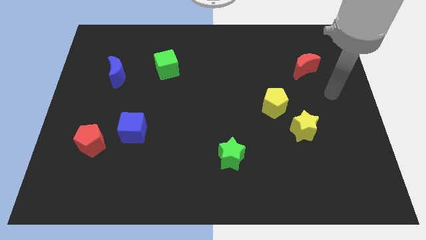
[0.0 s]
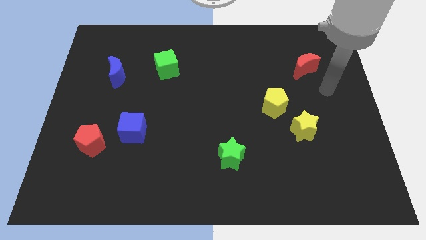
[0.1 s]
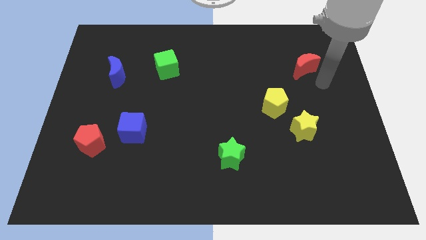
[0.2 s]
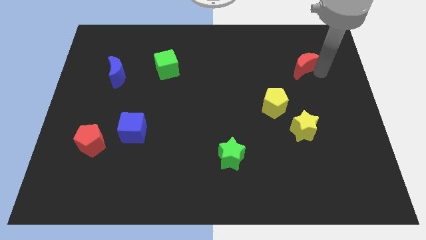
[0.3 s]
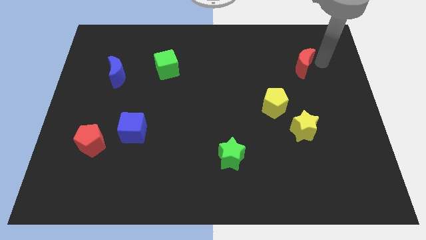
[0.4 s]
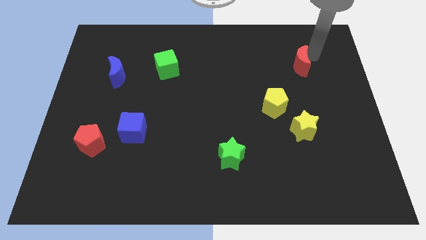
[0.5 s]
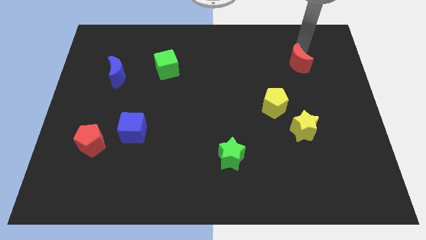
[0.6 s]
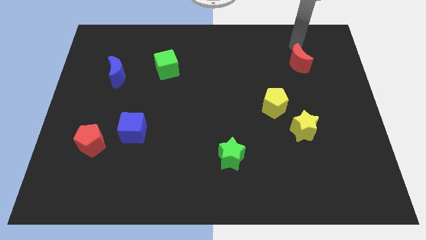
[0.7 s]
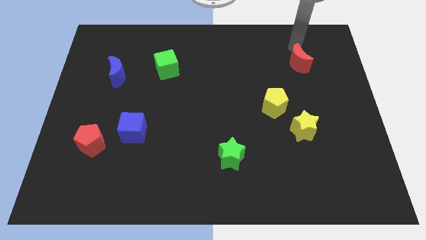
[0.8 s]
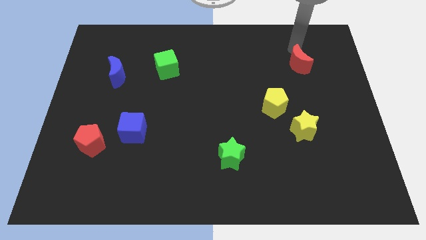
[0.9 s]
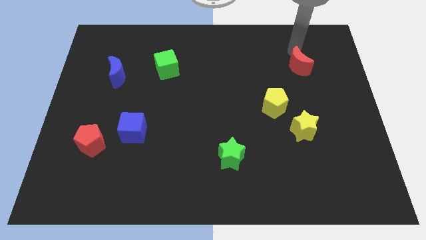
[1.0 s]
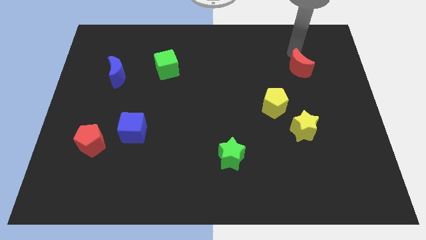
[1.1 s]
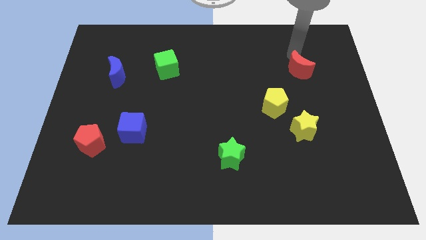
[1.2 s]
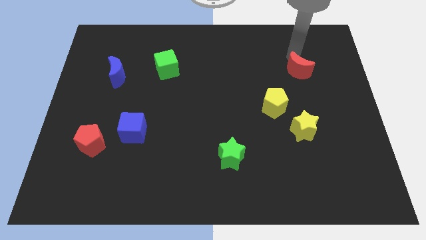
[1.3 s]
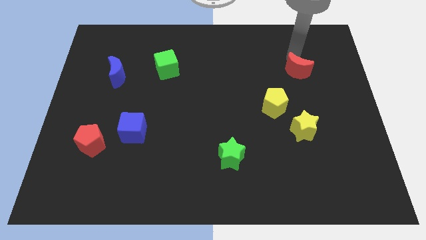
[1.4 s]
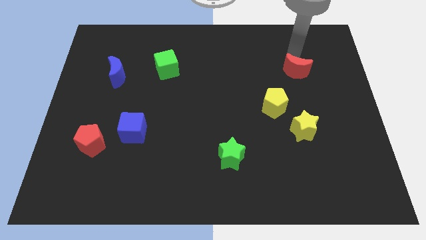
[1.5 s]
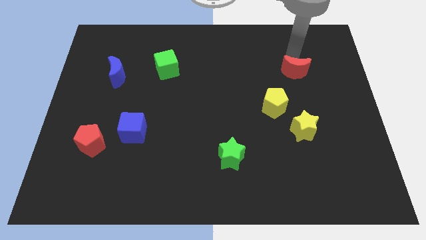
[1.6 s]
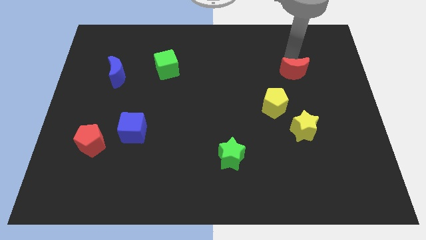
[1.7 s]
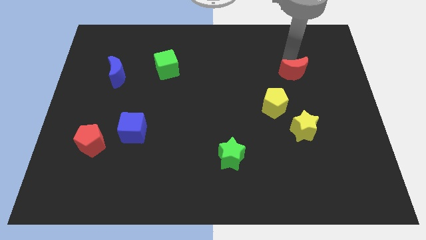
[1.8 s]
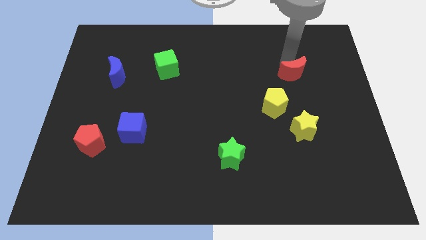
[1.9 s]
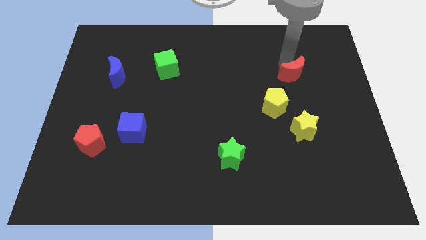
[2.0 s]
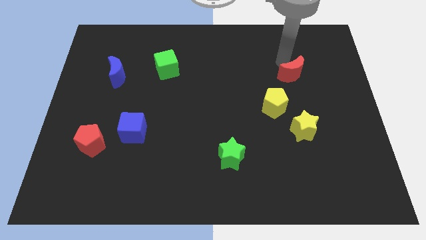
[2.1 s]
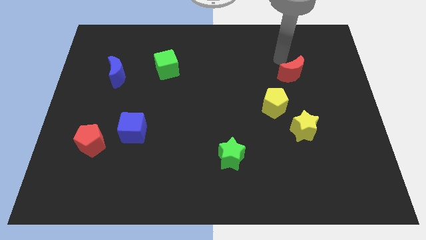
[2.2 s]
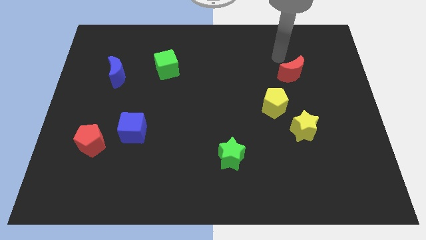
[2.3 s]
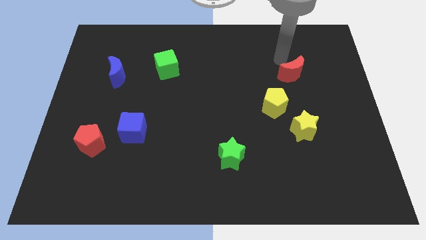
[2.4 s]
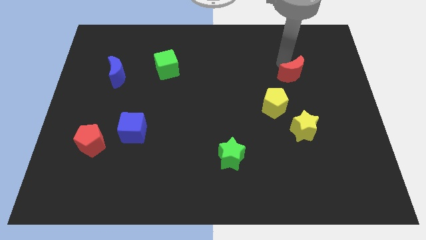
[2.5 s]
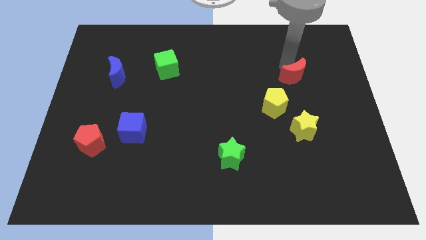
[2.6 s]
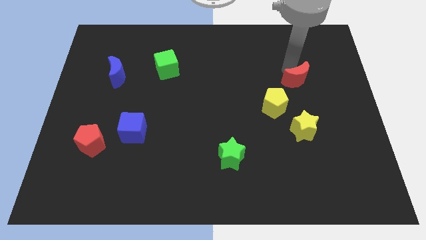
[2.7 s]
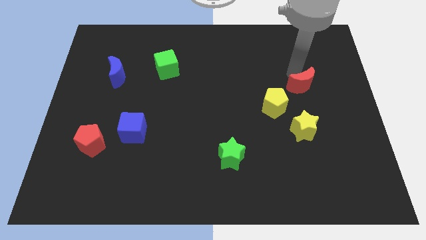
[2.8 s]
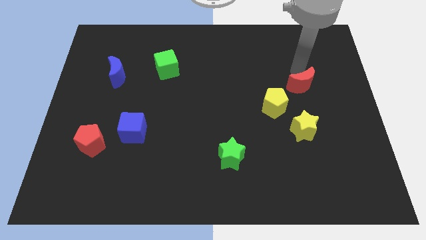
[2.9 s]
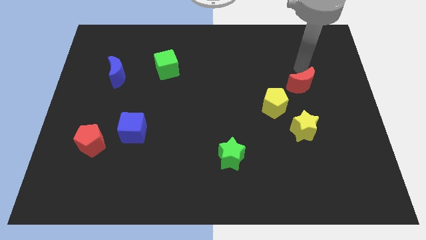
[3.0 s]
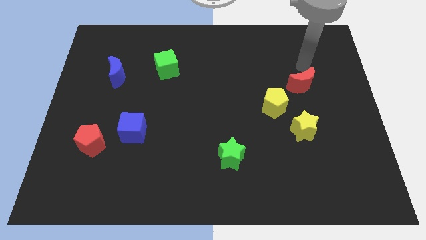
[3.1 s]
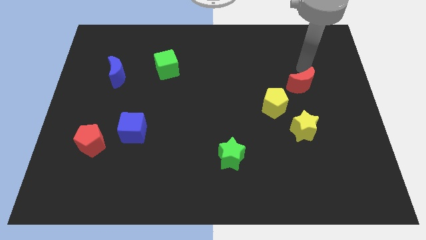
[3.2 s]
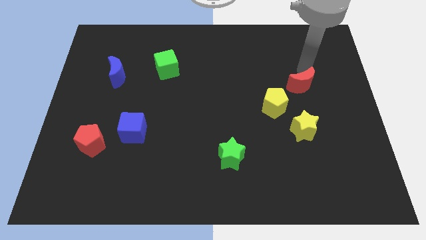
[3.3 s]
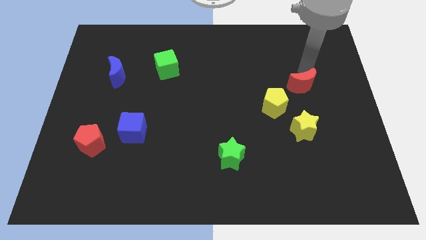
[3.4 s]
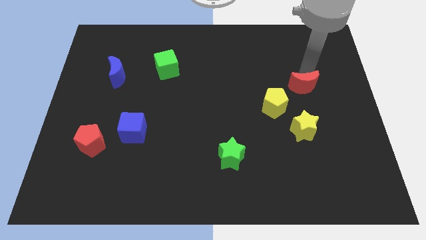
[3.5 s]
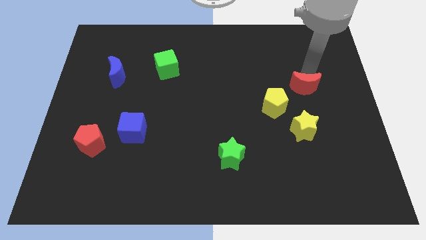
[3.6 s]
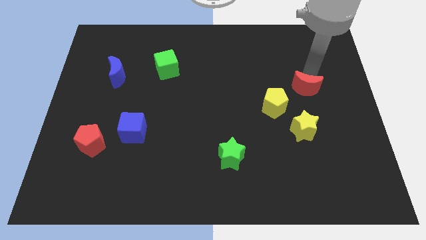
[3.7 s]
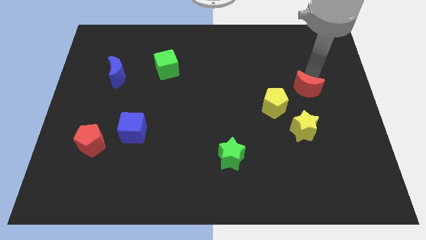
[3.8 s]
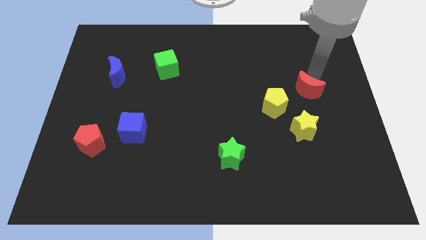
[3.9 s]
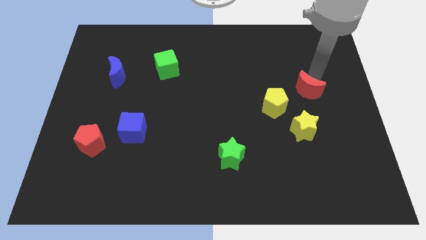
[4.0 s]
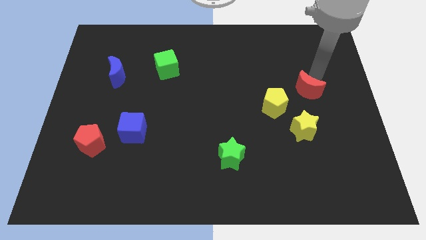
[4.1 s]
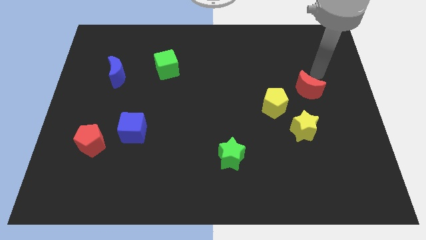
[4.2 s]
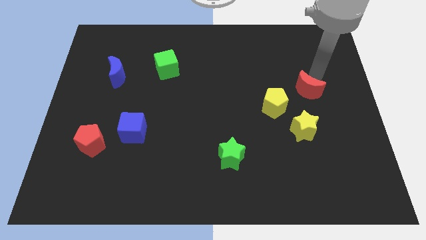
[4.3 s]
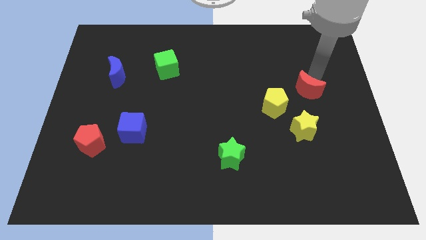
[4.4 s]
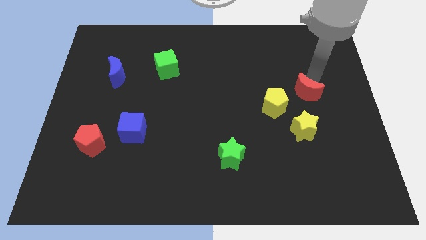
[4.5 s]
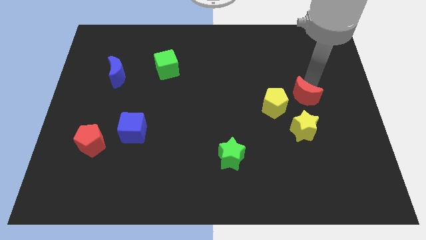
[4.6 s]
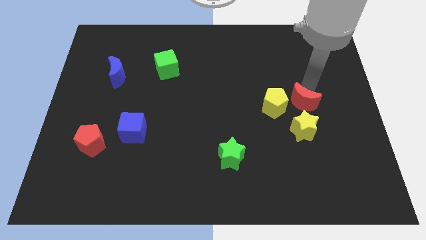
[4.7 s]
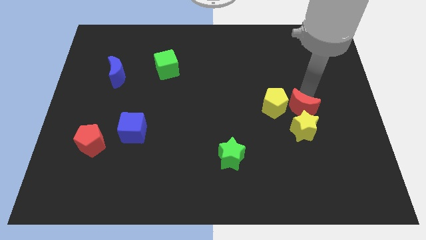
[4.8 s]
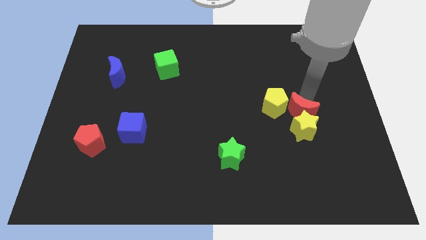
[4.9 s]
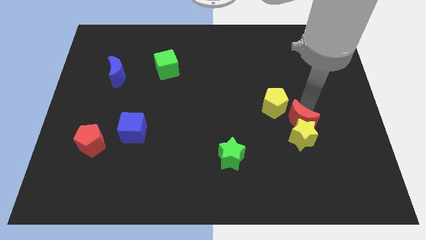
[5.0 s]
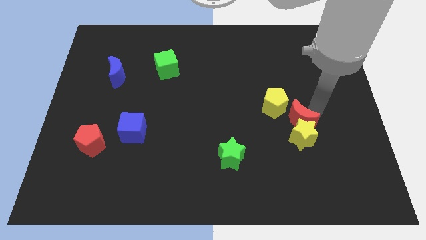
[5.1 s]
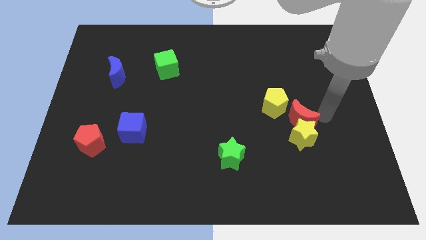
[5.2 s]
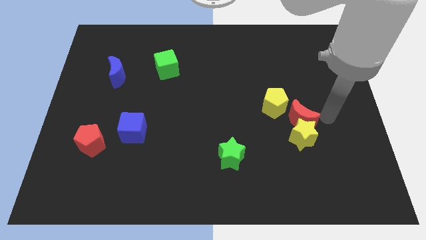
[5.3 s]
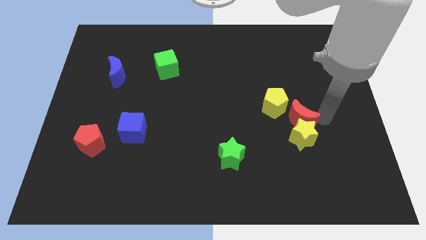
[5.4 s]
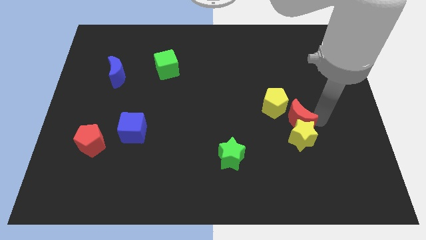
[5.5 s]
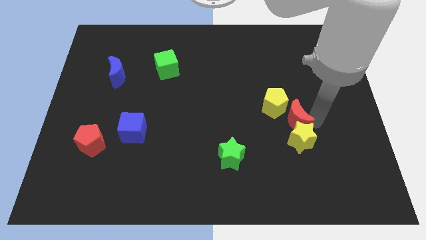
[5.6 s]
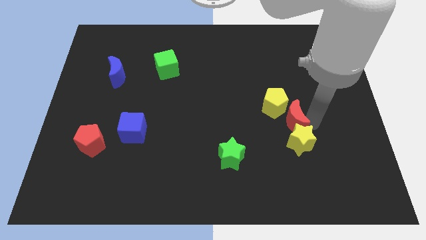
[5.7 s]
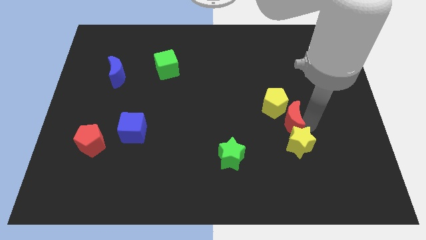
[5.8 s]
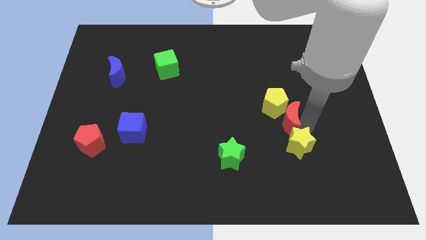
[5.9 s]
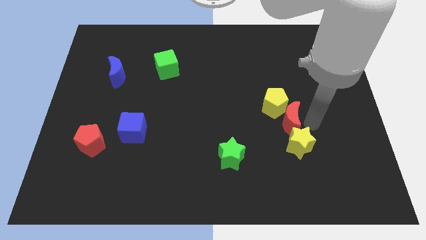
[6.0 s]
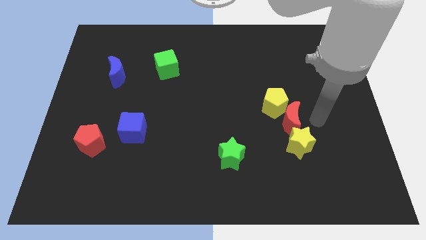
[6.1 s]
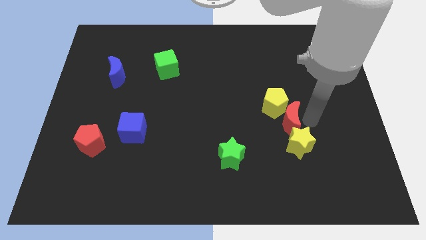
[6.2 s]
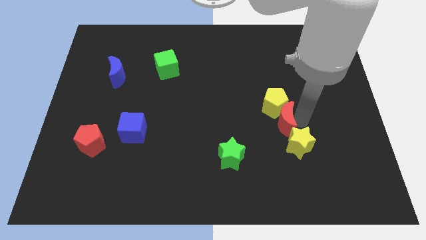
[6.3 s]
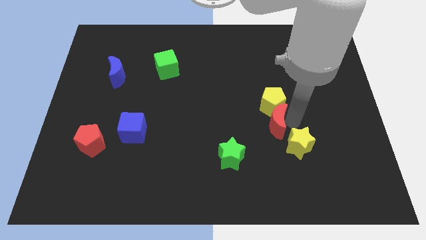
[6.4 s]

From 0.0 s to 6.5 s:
move the red moon to the bottom left of the yellow pentagon

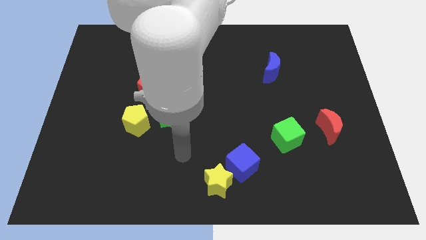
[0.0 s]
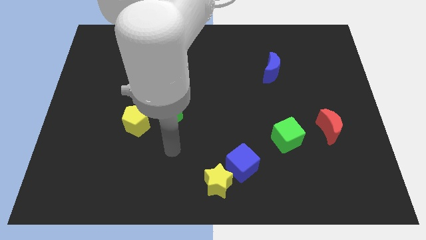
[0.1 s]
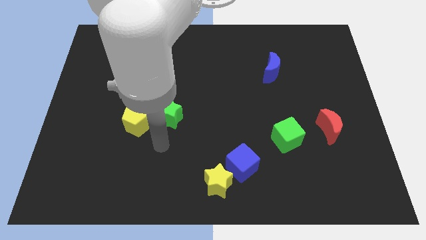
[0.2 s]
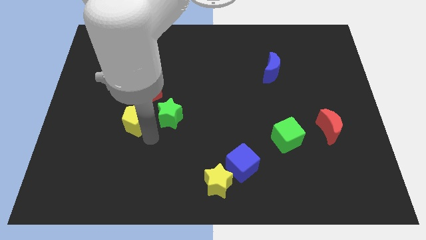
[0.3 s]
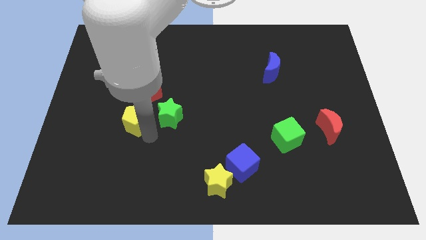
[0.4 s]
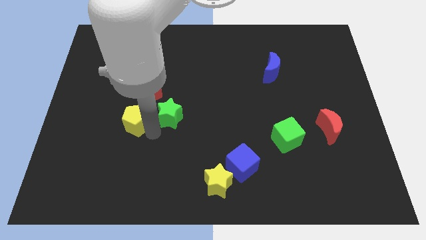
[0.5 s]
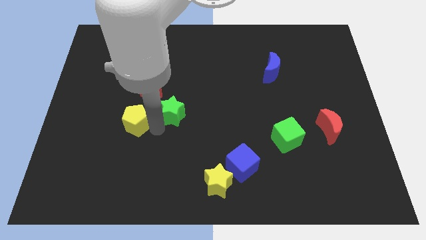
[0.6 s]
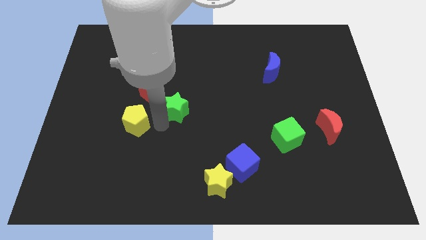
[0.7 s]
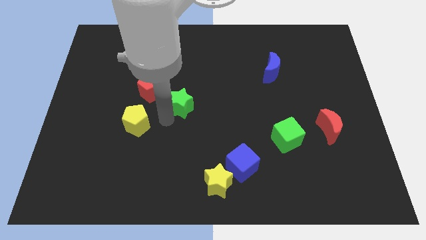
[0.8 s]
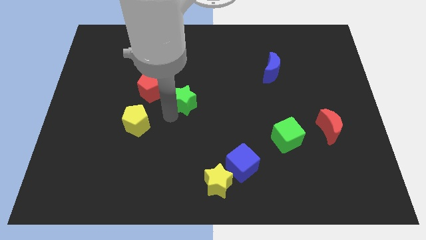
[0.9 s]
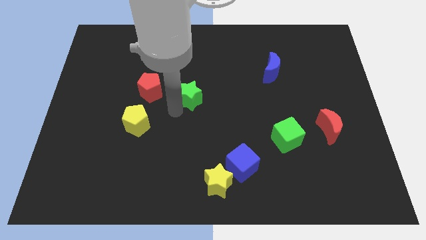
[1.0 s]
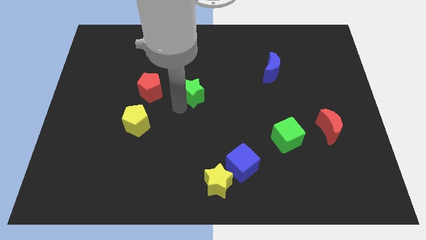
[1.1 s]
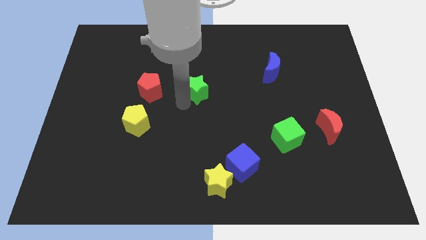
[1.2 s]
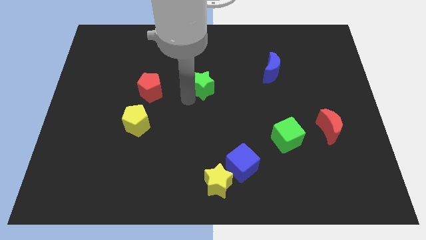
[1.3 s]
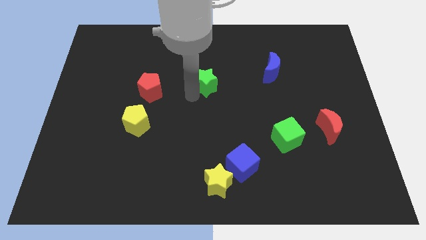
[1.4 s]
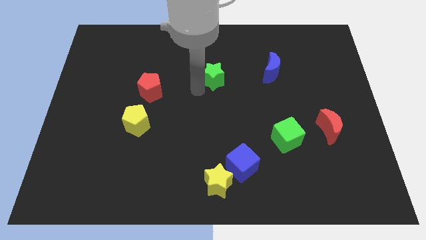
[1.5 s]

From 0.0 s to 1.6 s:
push the green star to the left side of the blue moon
